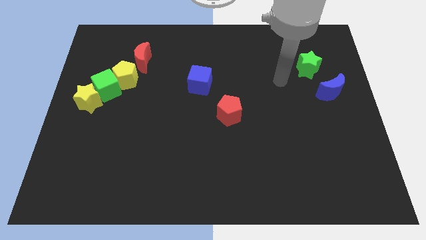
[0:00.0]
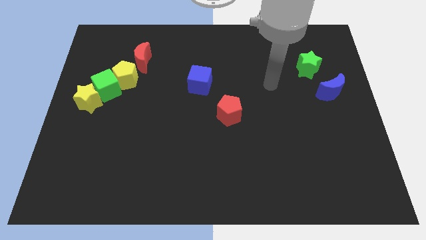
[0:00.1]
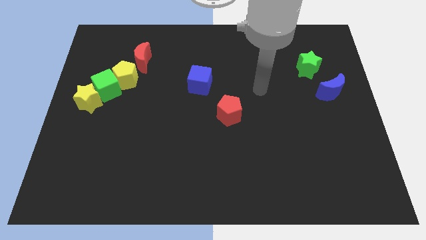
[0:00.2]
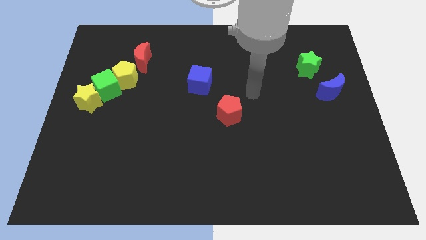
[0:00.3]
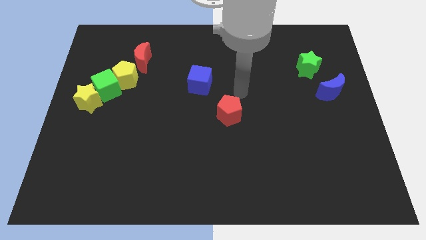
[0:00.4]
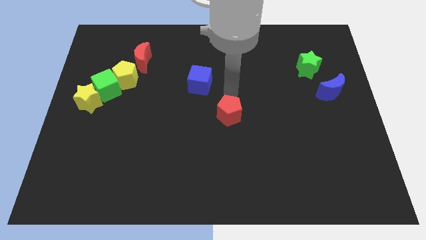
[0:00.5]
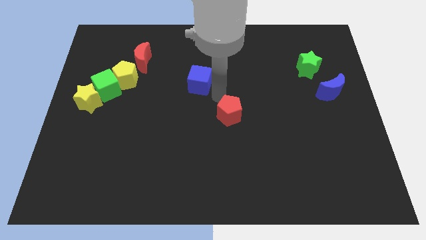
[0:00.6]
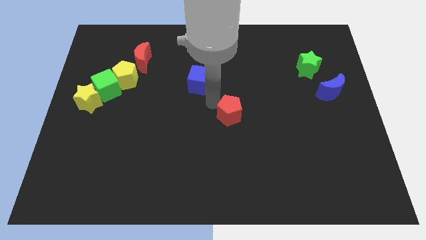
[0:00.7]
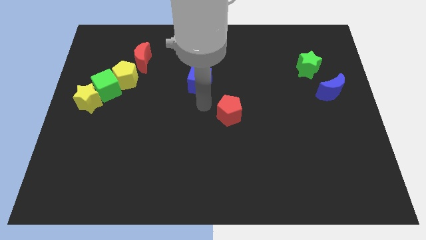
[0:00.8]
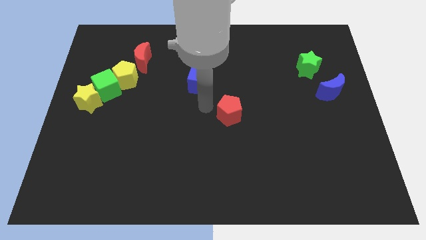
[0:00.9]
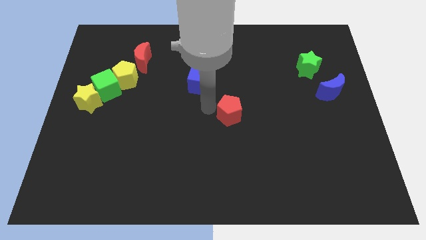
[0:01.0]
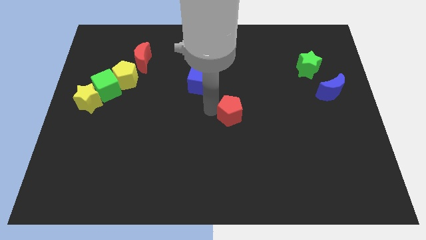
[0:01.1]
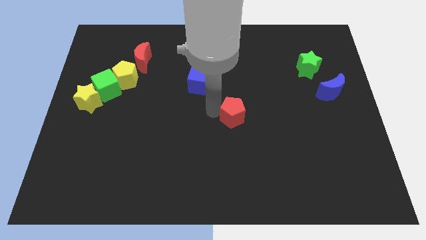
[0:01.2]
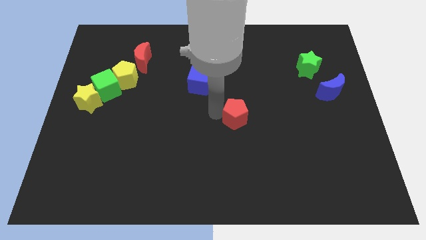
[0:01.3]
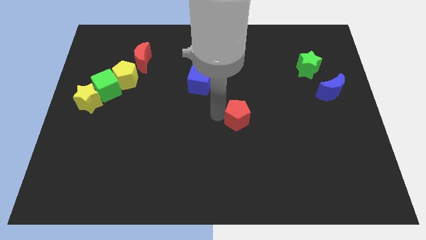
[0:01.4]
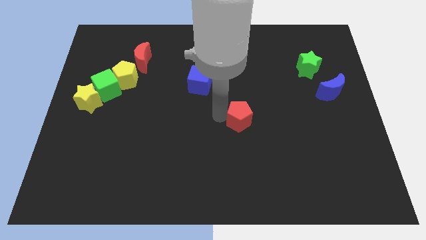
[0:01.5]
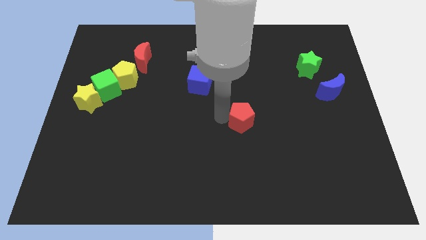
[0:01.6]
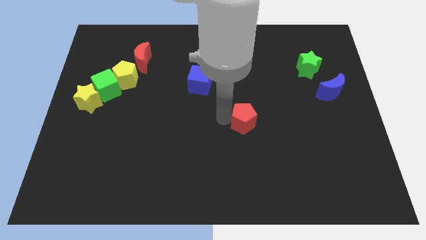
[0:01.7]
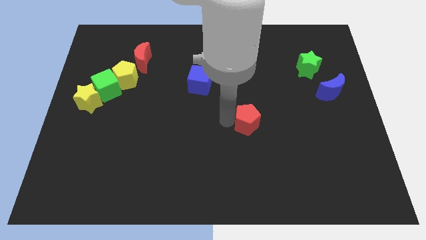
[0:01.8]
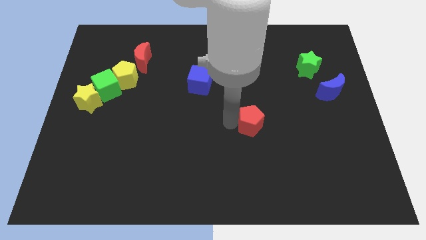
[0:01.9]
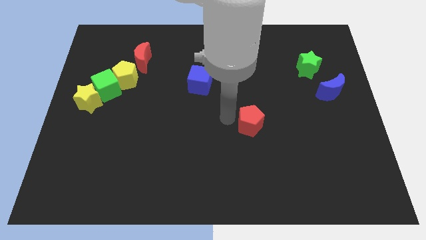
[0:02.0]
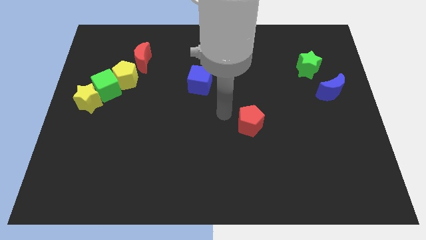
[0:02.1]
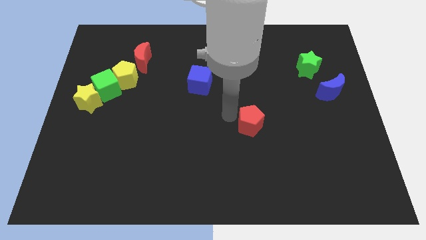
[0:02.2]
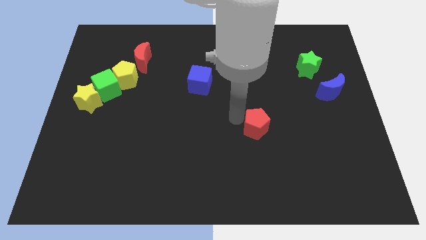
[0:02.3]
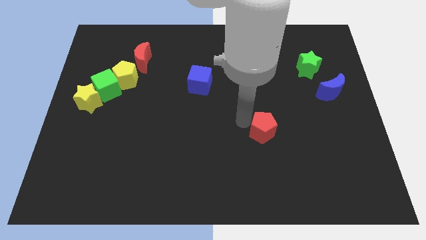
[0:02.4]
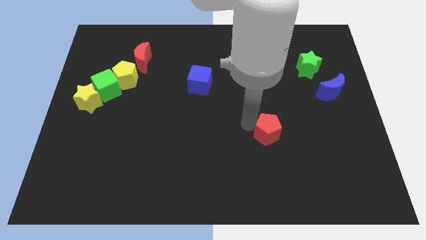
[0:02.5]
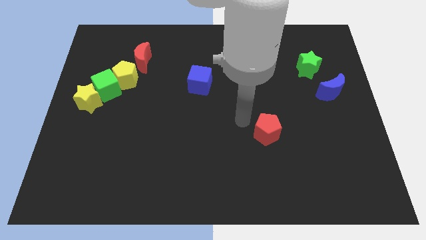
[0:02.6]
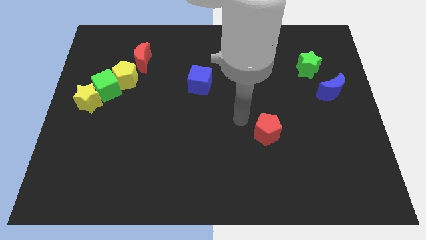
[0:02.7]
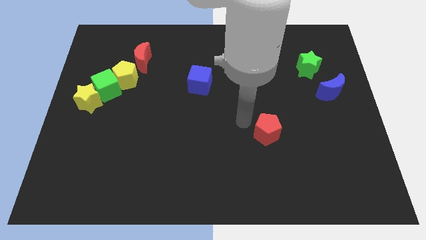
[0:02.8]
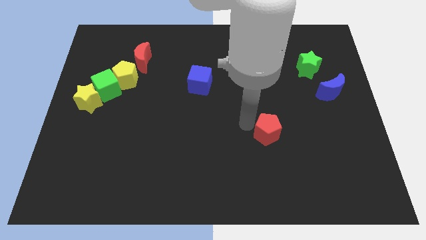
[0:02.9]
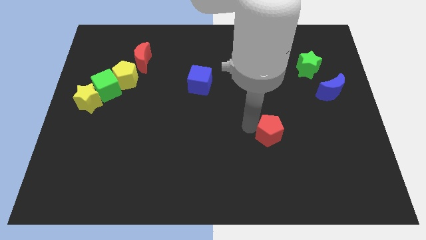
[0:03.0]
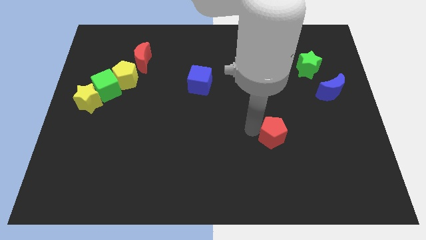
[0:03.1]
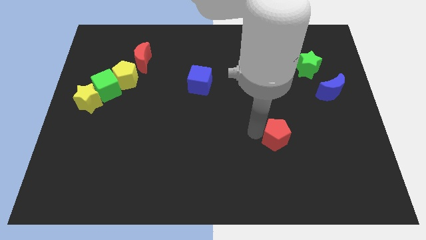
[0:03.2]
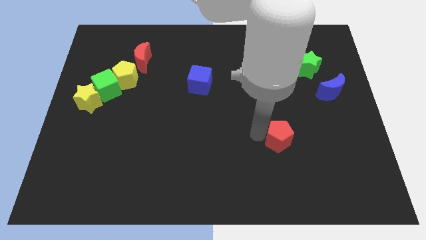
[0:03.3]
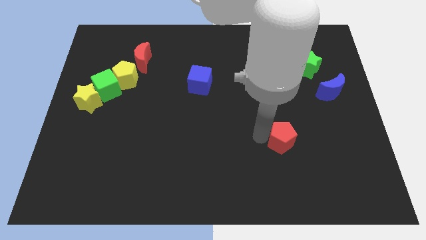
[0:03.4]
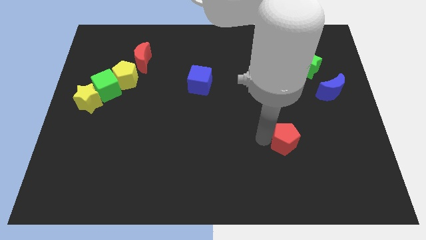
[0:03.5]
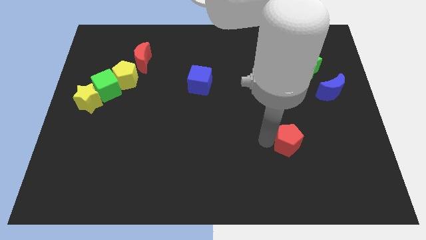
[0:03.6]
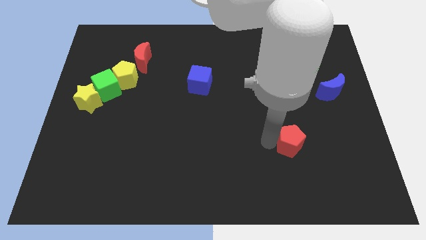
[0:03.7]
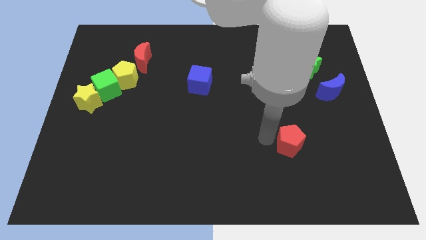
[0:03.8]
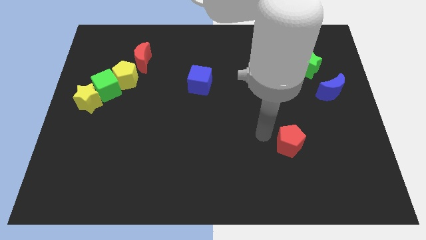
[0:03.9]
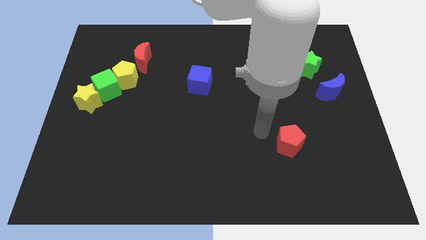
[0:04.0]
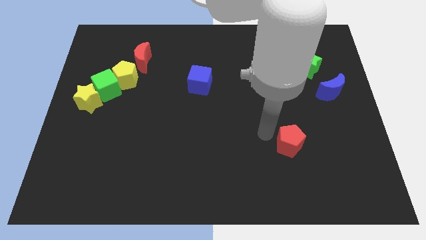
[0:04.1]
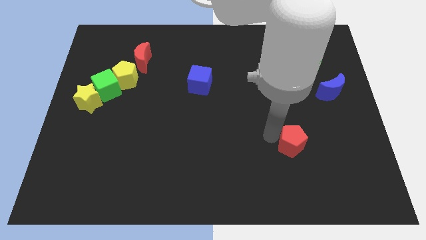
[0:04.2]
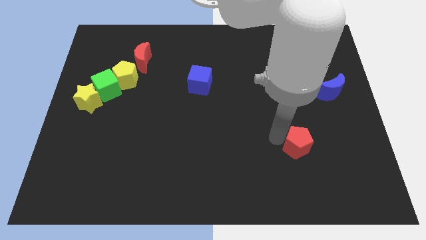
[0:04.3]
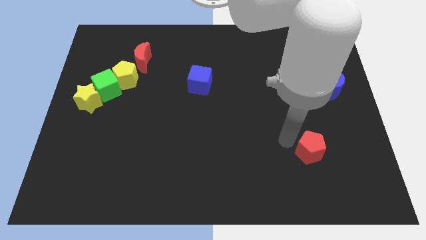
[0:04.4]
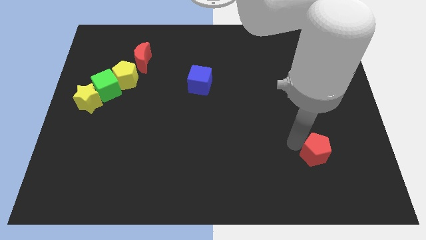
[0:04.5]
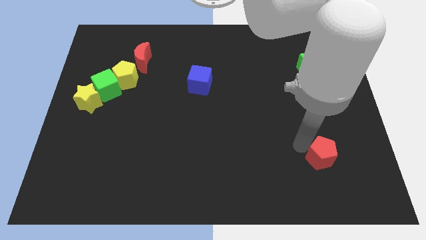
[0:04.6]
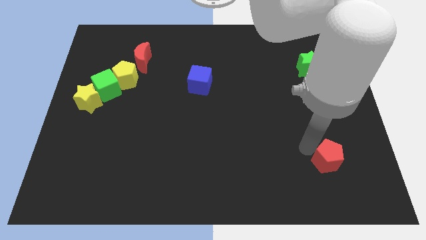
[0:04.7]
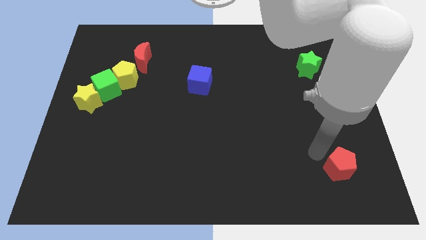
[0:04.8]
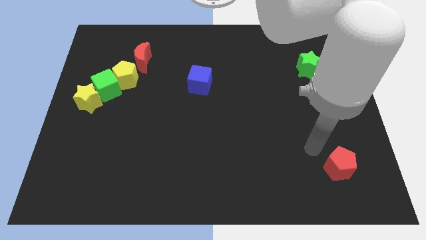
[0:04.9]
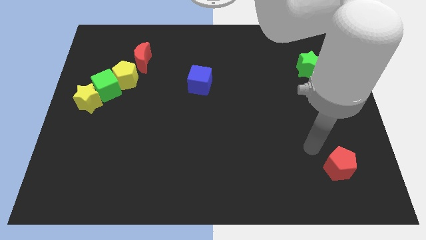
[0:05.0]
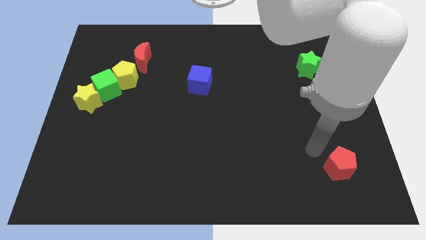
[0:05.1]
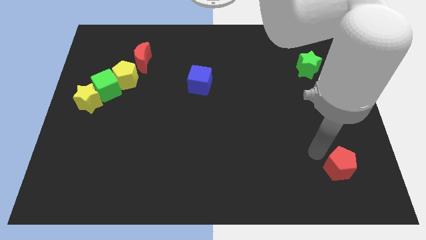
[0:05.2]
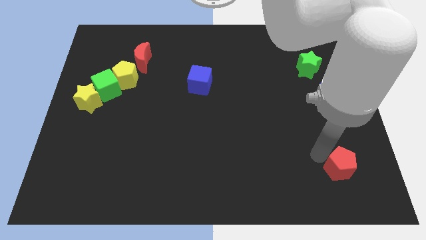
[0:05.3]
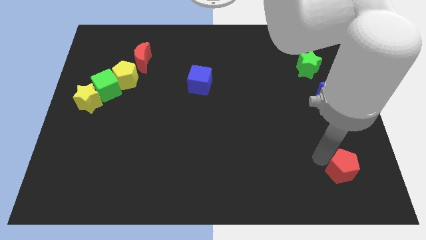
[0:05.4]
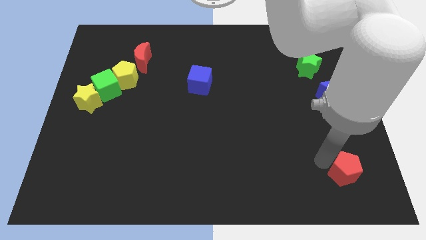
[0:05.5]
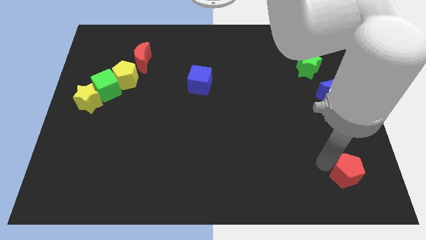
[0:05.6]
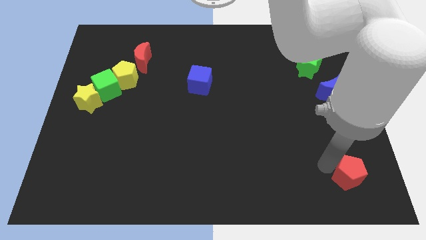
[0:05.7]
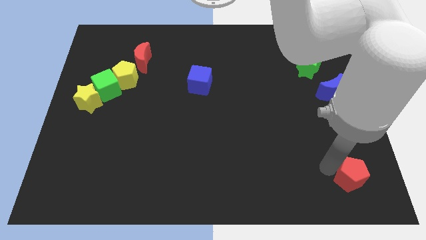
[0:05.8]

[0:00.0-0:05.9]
push the red pentagon to the bottom right corner

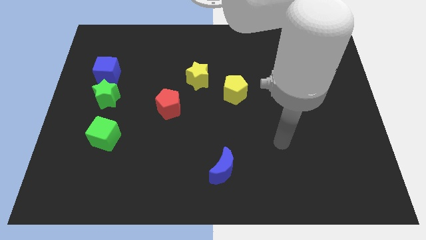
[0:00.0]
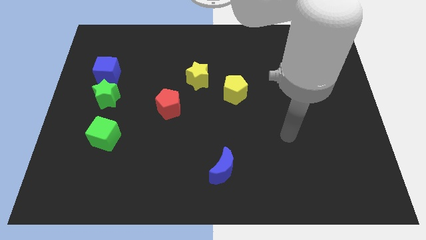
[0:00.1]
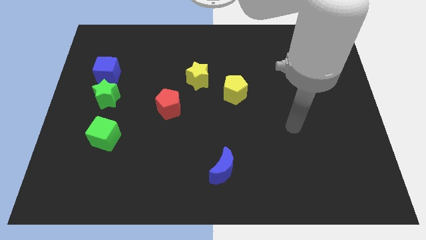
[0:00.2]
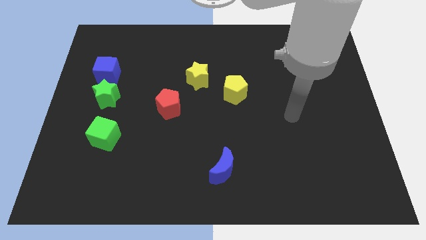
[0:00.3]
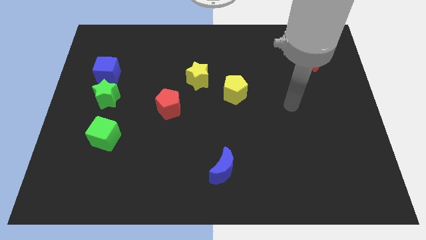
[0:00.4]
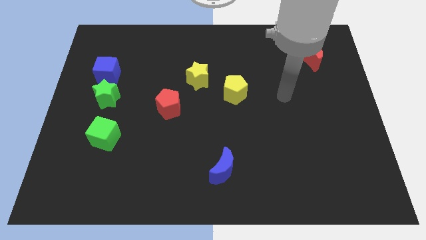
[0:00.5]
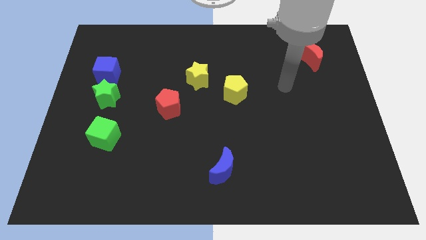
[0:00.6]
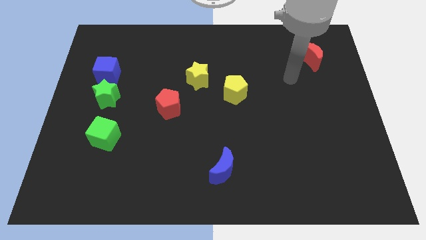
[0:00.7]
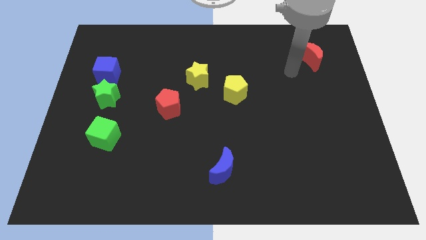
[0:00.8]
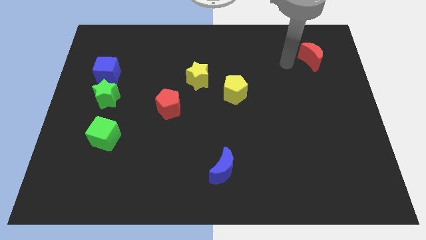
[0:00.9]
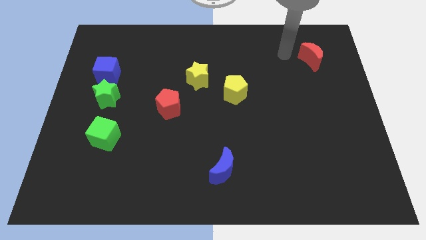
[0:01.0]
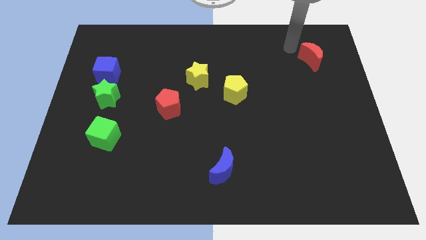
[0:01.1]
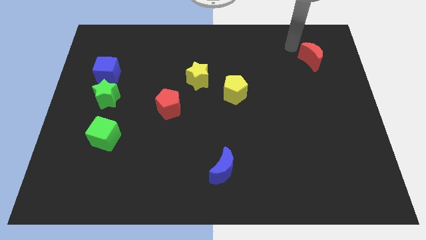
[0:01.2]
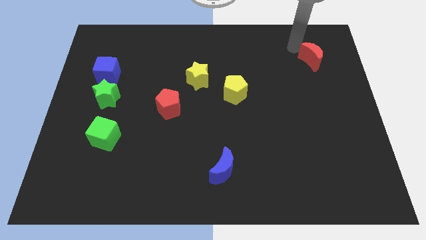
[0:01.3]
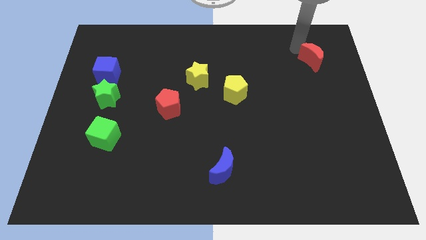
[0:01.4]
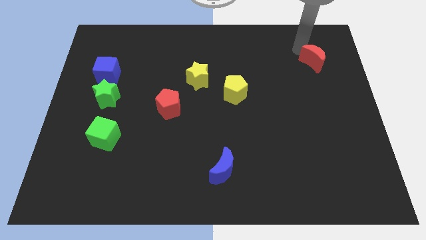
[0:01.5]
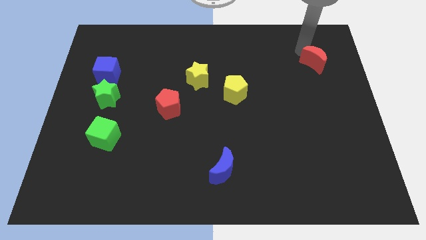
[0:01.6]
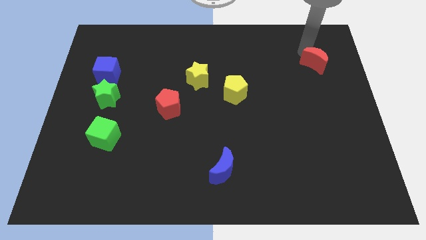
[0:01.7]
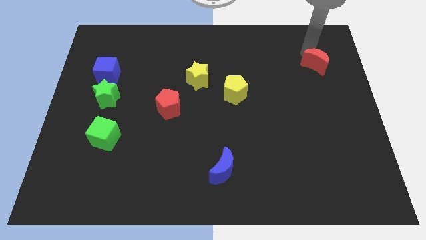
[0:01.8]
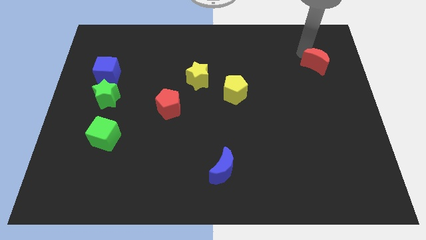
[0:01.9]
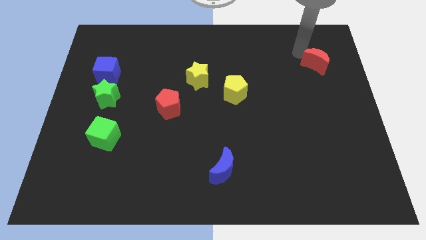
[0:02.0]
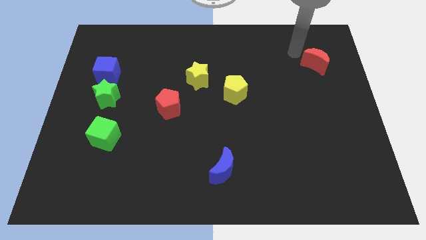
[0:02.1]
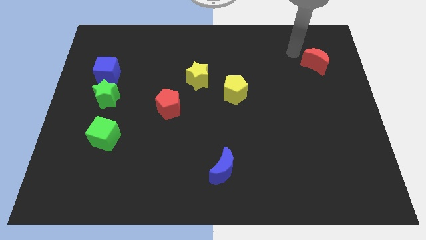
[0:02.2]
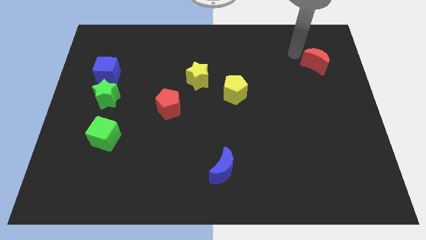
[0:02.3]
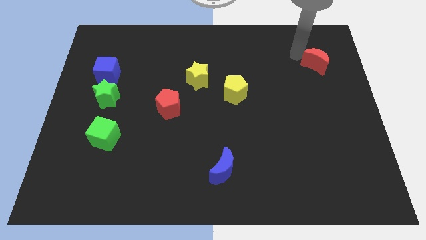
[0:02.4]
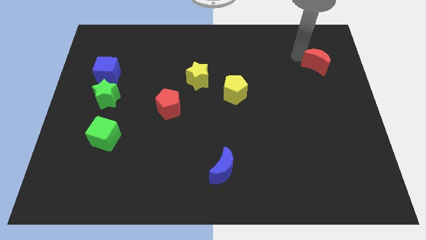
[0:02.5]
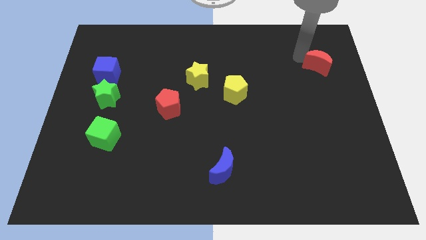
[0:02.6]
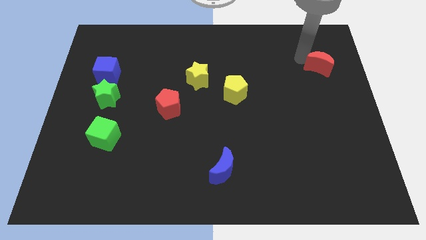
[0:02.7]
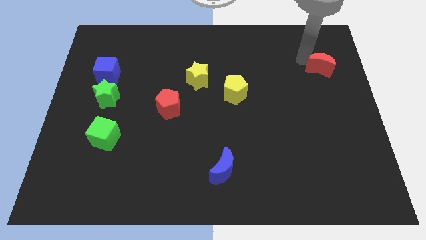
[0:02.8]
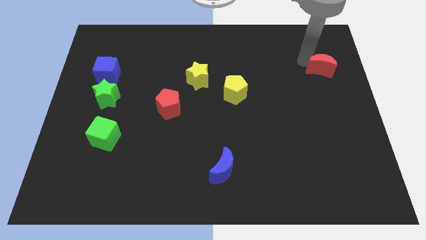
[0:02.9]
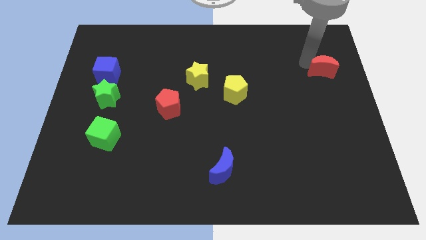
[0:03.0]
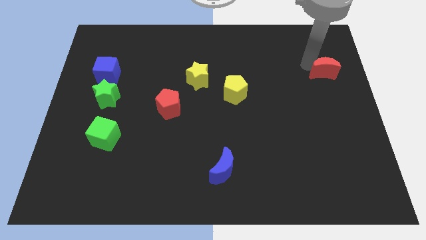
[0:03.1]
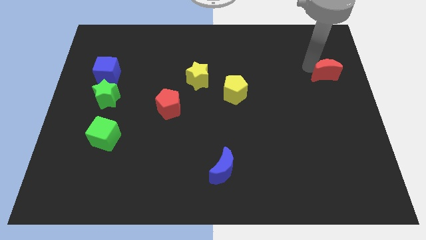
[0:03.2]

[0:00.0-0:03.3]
move the red moon to the right side
